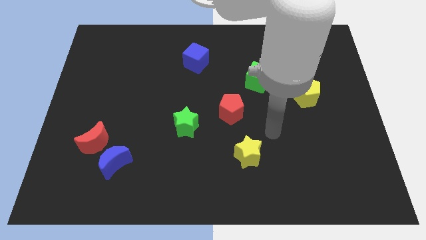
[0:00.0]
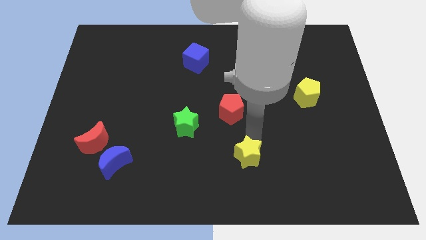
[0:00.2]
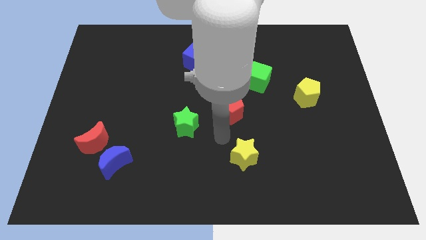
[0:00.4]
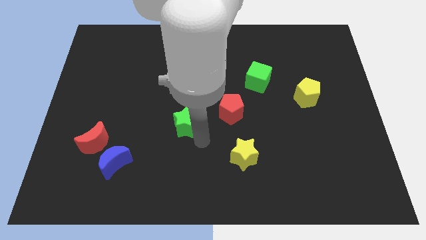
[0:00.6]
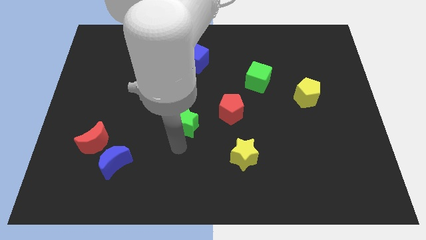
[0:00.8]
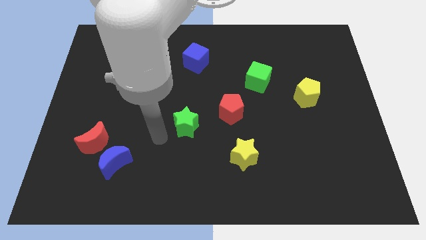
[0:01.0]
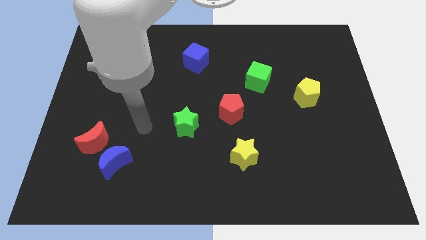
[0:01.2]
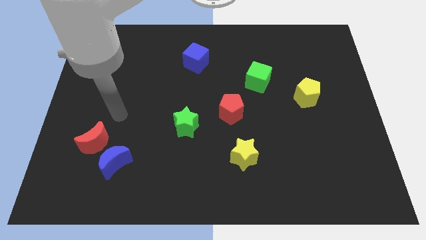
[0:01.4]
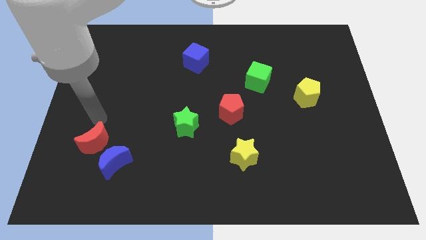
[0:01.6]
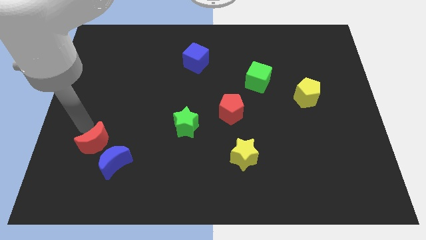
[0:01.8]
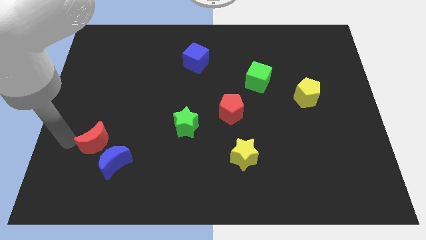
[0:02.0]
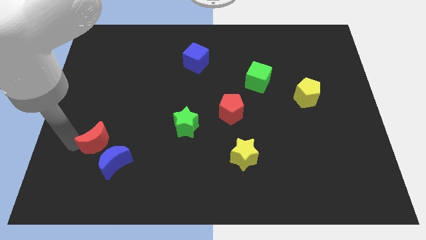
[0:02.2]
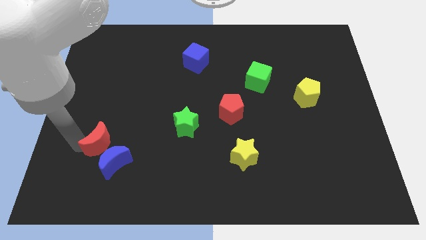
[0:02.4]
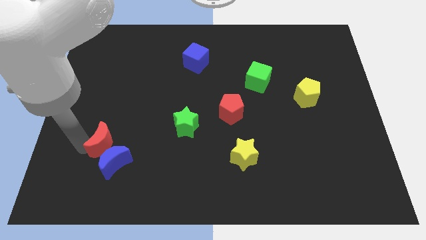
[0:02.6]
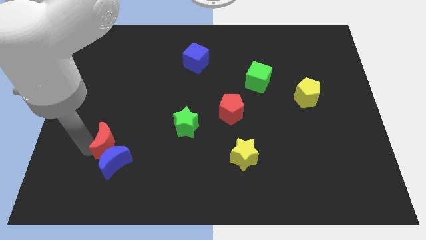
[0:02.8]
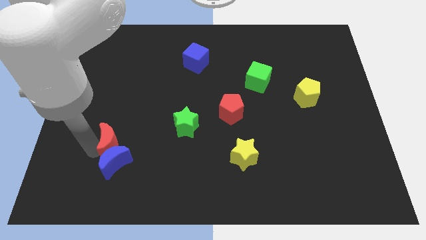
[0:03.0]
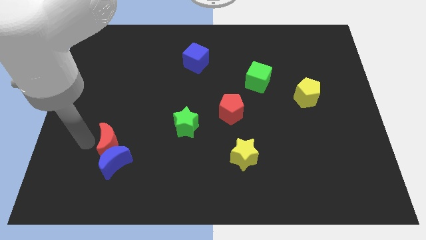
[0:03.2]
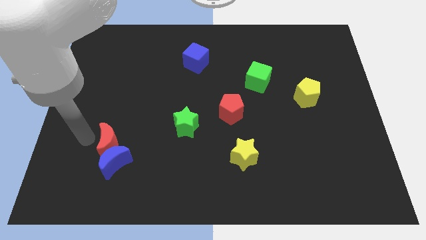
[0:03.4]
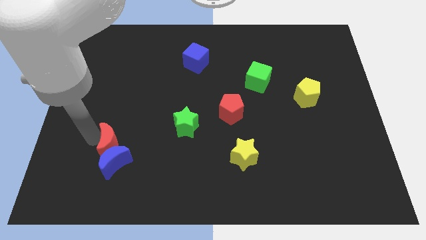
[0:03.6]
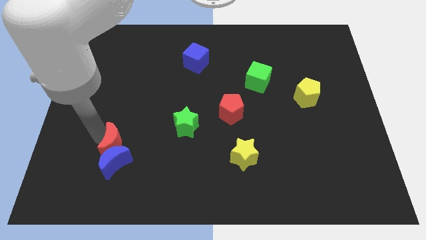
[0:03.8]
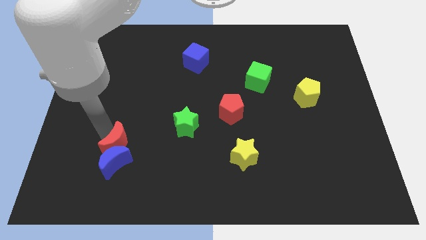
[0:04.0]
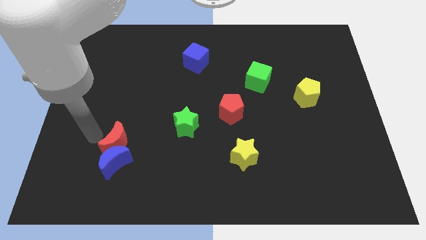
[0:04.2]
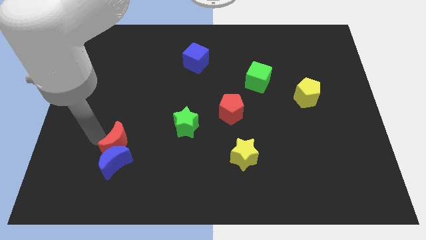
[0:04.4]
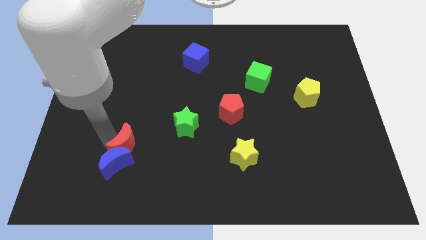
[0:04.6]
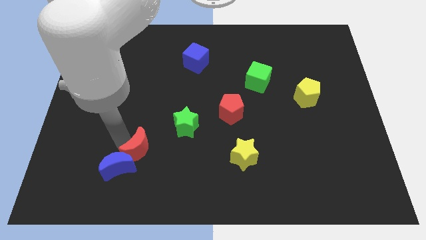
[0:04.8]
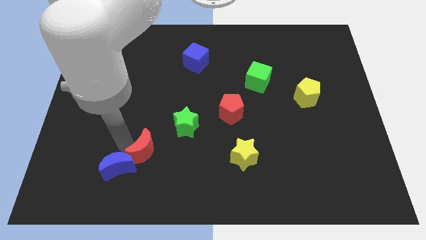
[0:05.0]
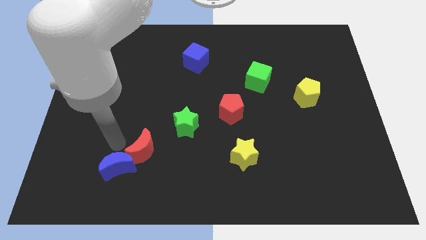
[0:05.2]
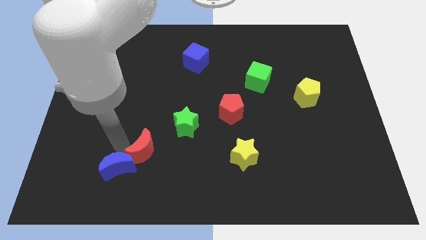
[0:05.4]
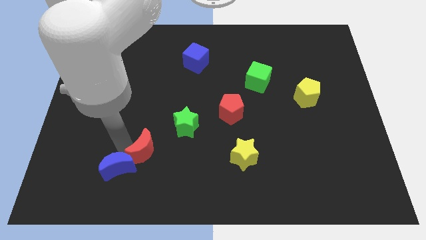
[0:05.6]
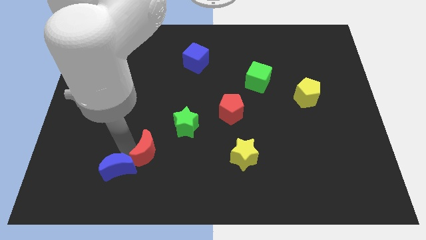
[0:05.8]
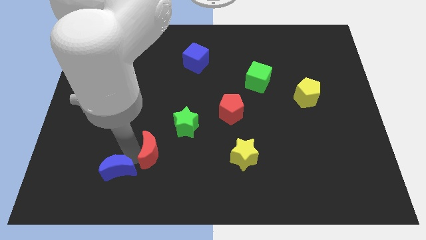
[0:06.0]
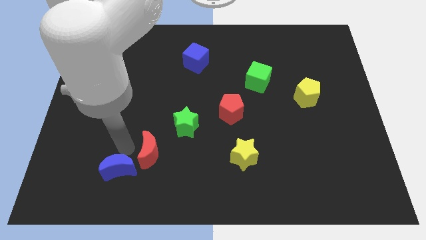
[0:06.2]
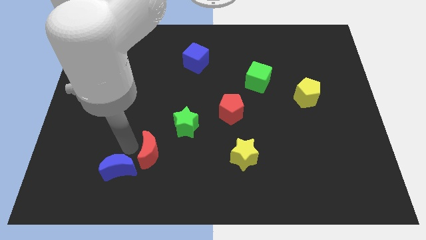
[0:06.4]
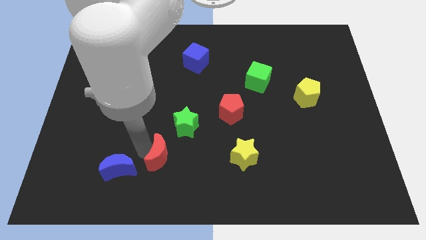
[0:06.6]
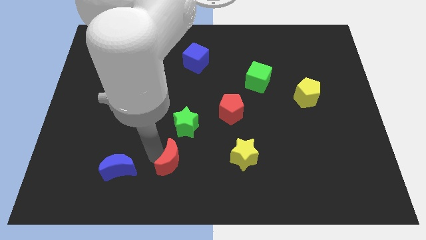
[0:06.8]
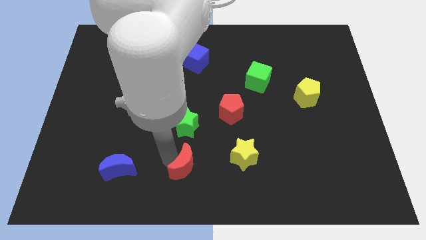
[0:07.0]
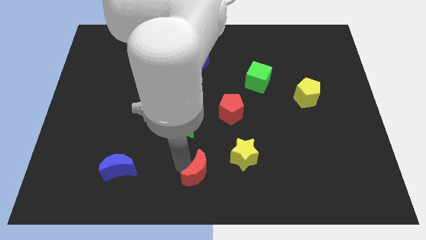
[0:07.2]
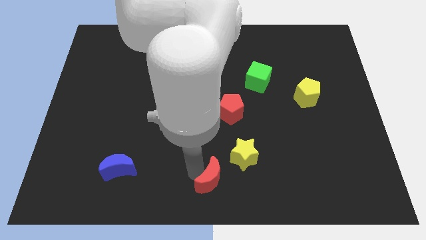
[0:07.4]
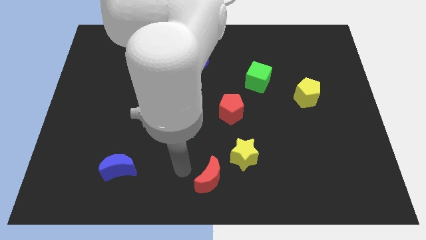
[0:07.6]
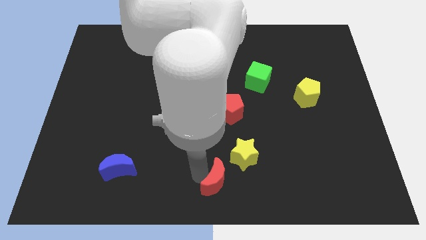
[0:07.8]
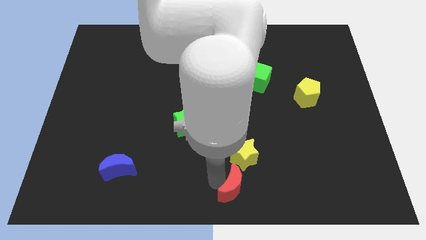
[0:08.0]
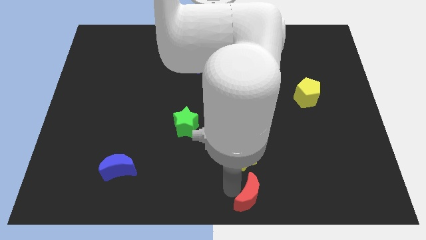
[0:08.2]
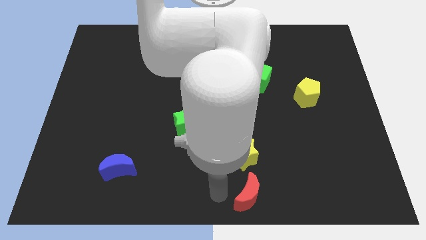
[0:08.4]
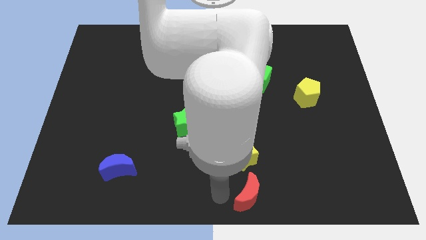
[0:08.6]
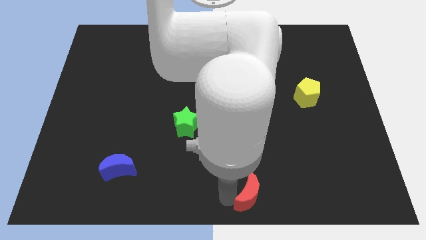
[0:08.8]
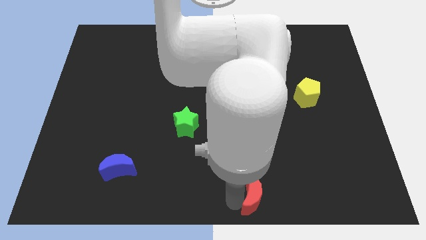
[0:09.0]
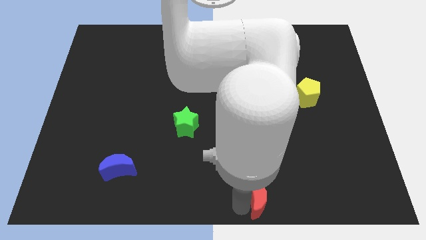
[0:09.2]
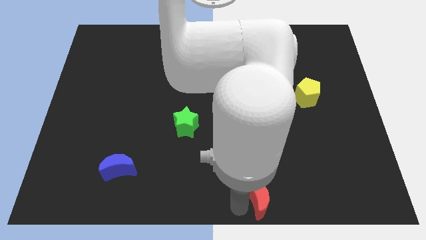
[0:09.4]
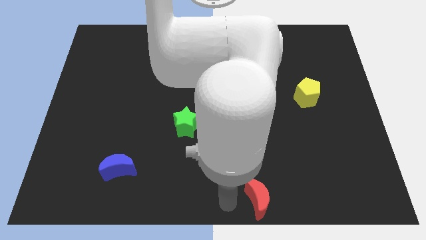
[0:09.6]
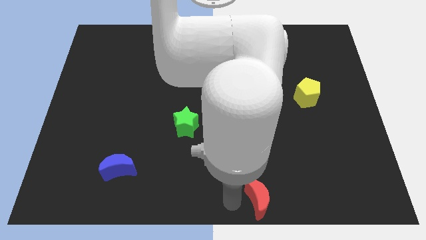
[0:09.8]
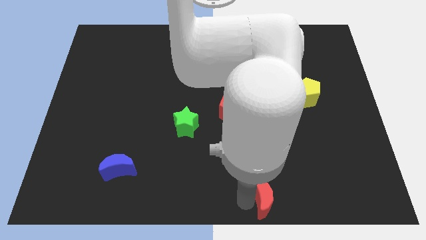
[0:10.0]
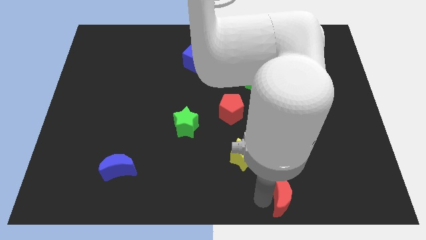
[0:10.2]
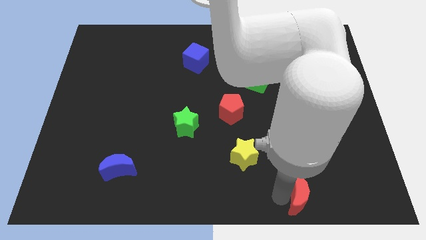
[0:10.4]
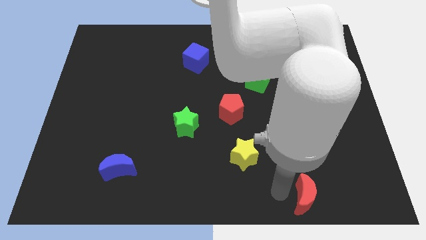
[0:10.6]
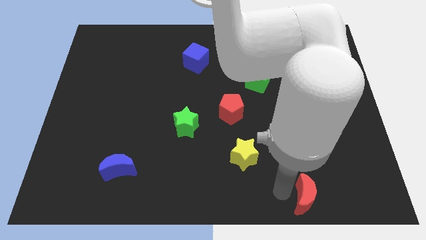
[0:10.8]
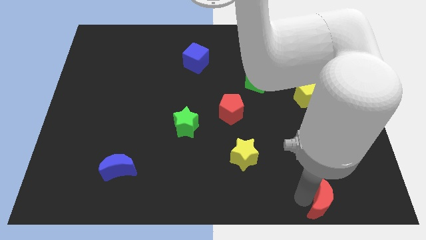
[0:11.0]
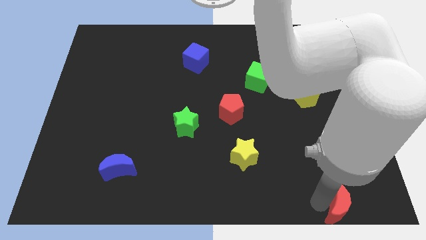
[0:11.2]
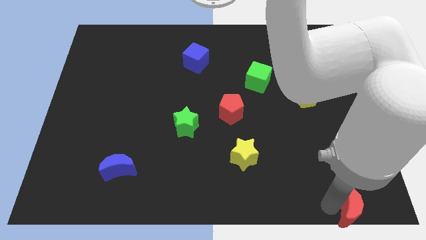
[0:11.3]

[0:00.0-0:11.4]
put the red moon to the bottom right of the board
